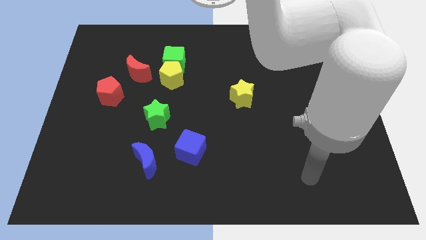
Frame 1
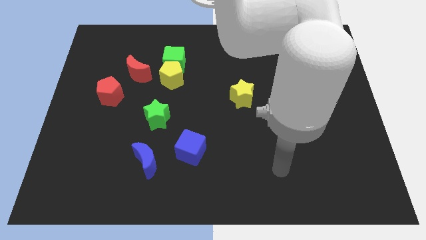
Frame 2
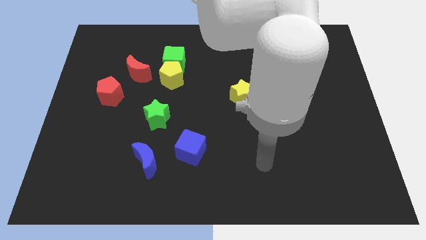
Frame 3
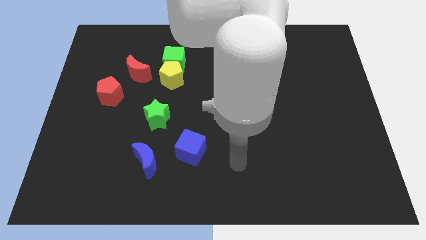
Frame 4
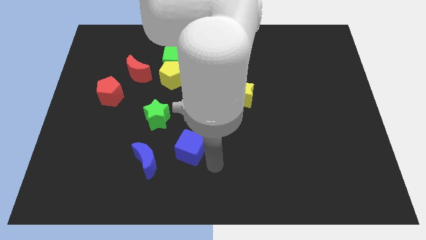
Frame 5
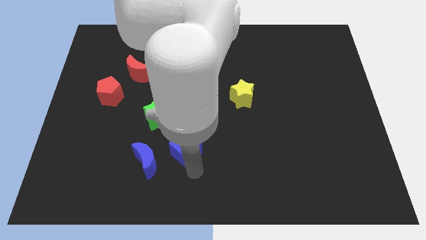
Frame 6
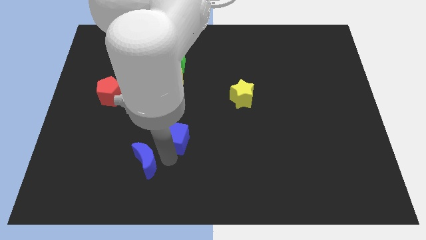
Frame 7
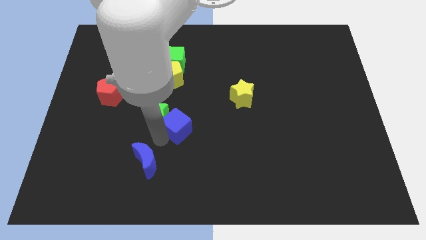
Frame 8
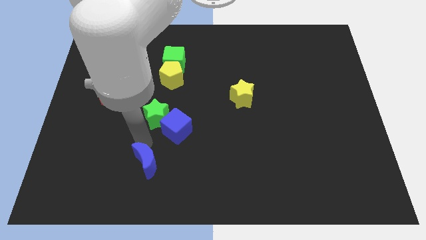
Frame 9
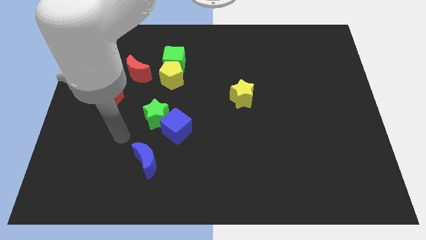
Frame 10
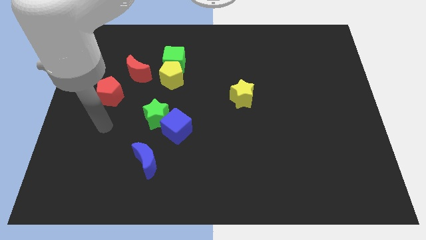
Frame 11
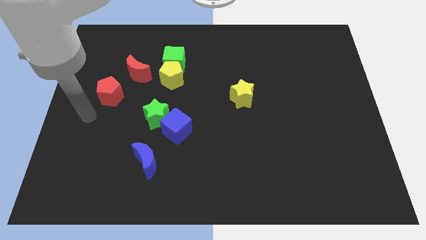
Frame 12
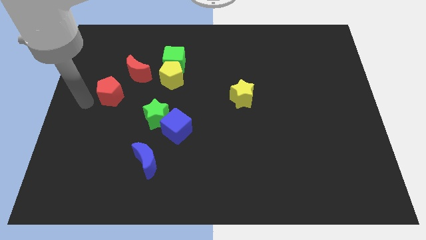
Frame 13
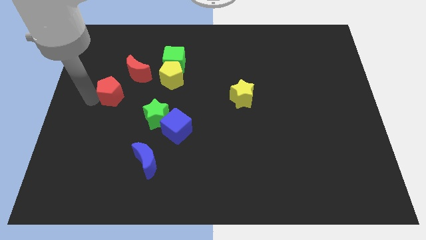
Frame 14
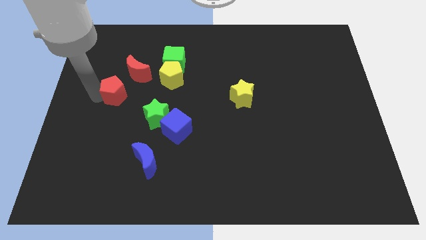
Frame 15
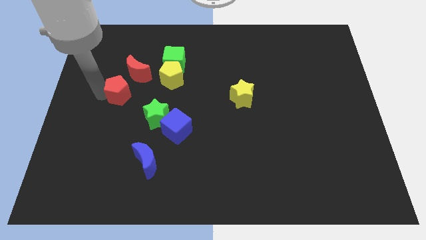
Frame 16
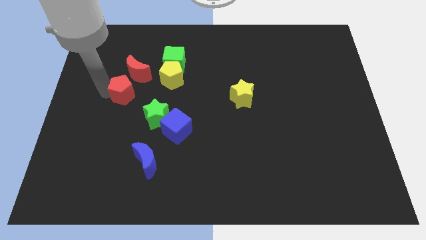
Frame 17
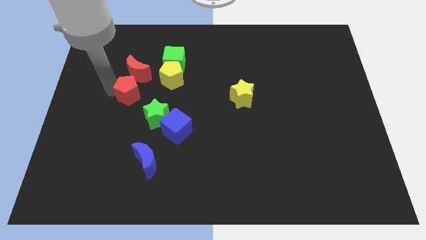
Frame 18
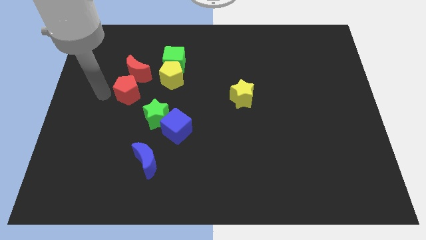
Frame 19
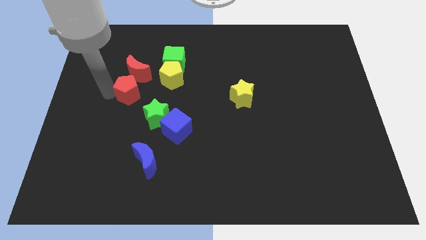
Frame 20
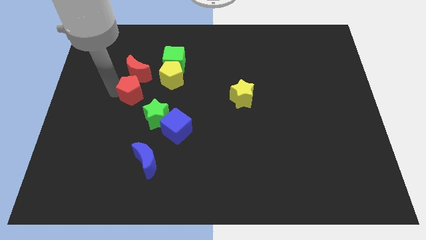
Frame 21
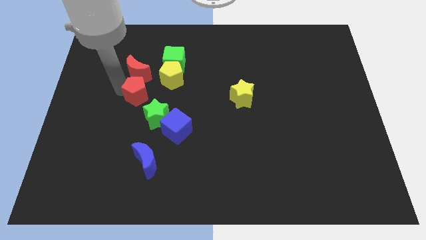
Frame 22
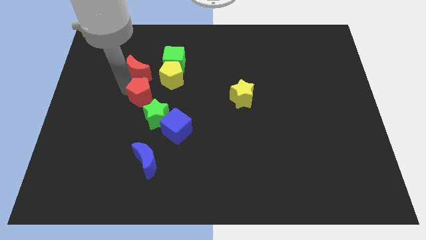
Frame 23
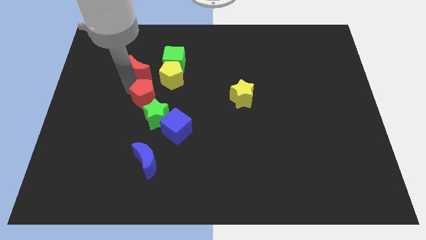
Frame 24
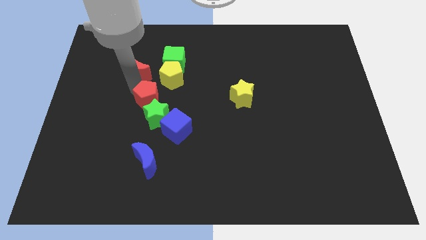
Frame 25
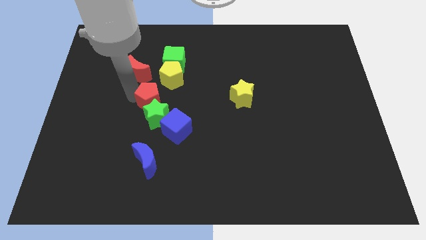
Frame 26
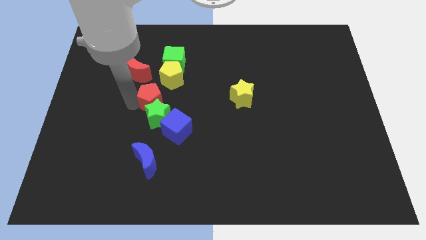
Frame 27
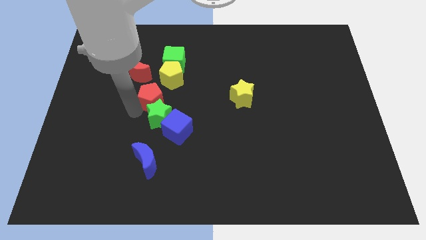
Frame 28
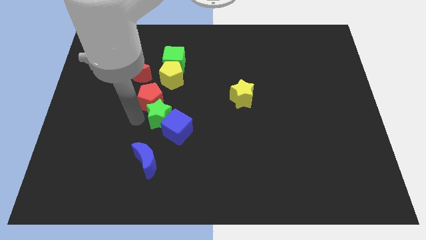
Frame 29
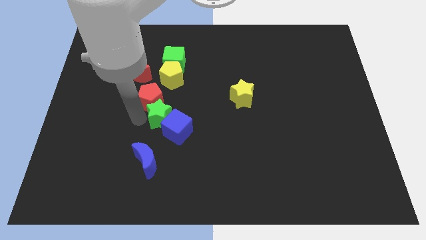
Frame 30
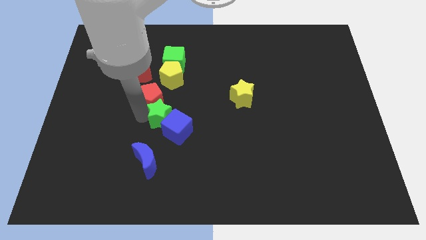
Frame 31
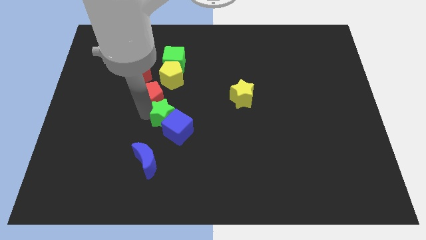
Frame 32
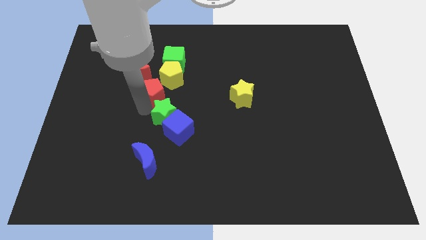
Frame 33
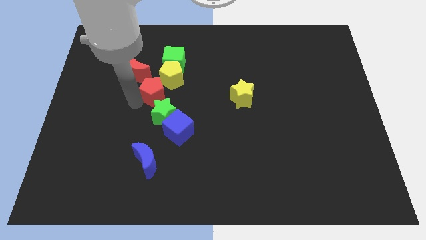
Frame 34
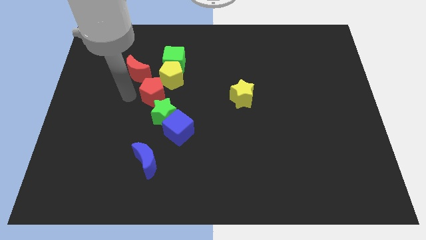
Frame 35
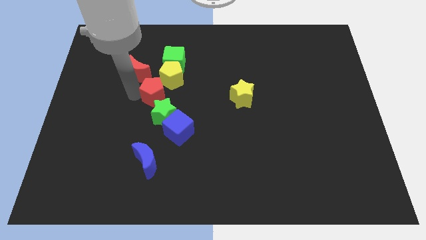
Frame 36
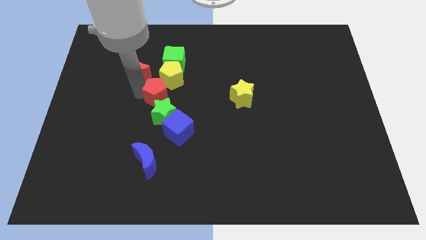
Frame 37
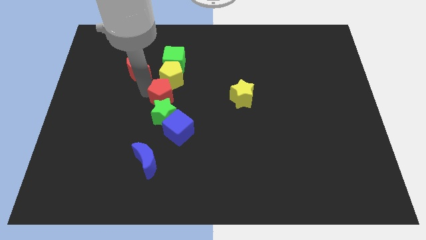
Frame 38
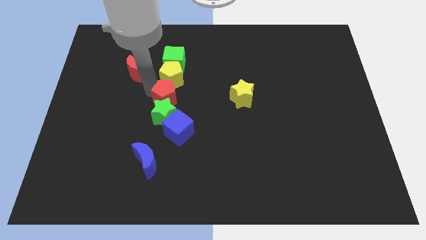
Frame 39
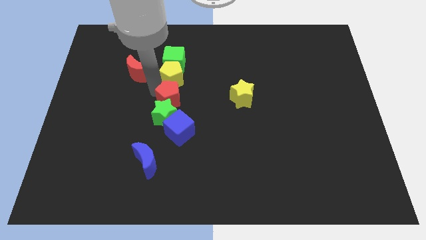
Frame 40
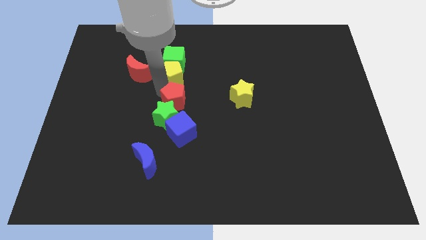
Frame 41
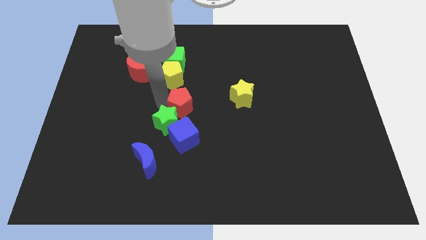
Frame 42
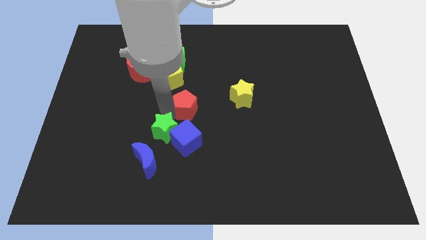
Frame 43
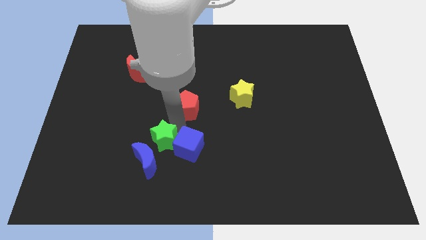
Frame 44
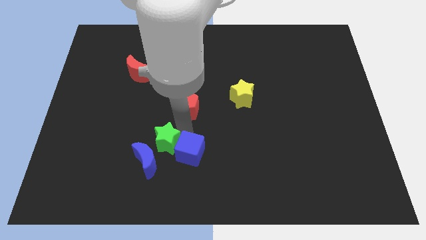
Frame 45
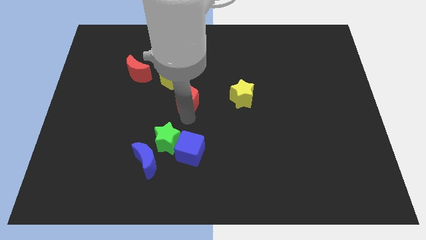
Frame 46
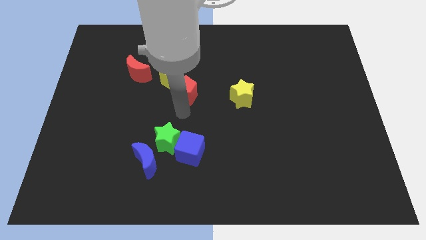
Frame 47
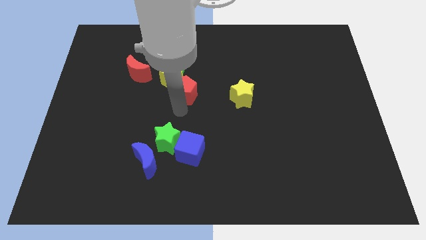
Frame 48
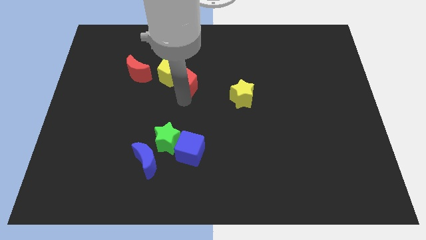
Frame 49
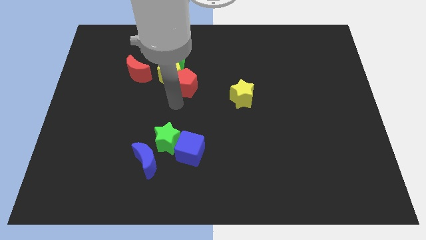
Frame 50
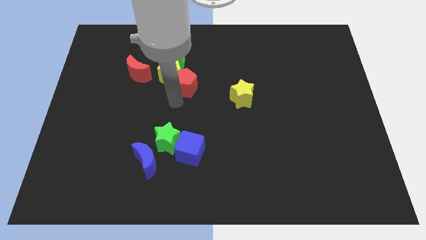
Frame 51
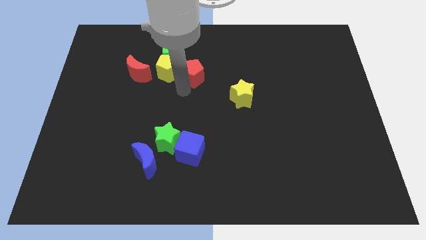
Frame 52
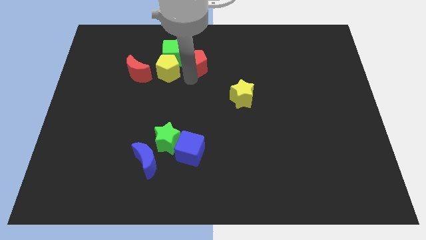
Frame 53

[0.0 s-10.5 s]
move the red pentagon to the right side of the green cube

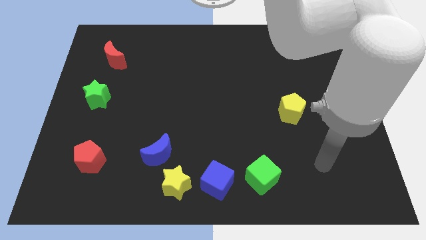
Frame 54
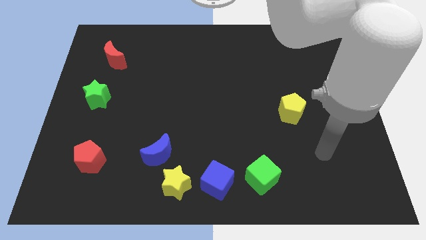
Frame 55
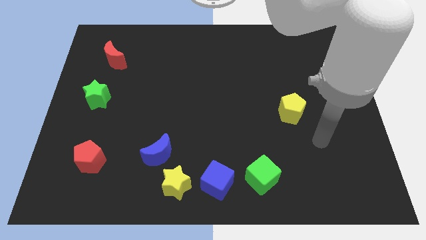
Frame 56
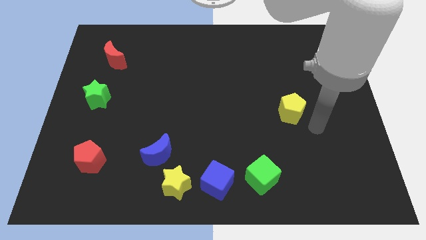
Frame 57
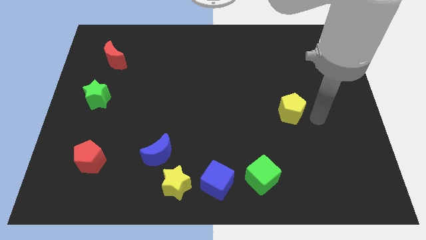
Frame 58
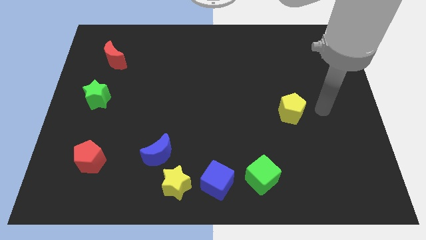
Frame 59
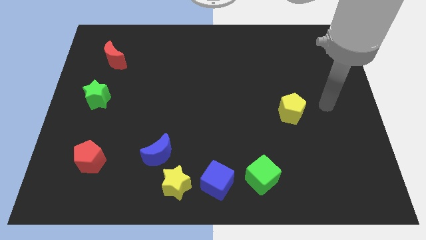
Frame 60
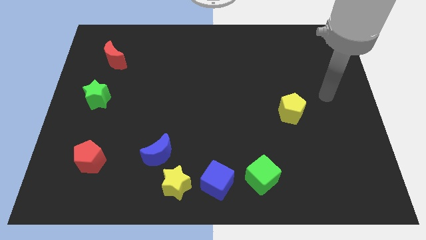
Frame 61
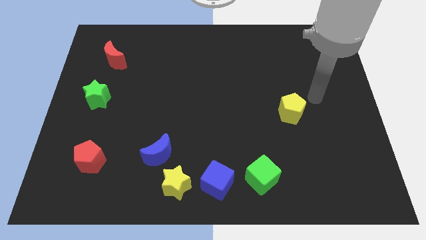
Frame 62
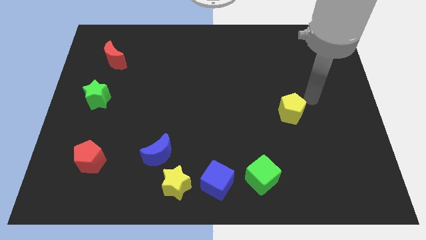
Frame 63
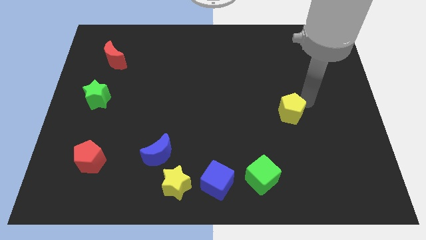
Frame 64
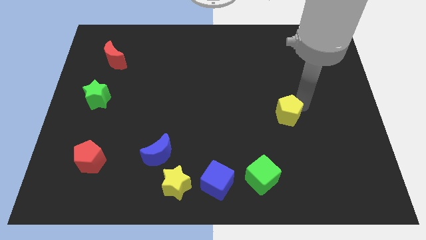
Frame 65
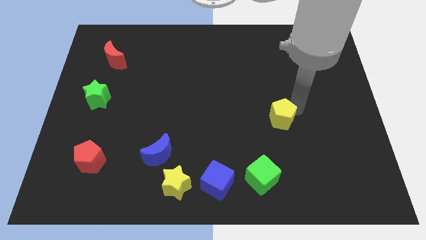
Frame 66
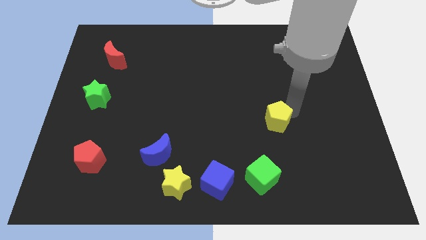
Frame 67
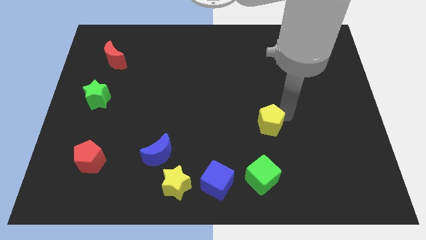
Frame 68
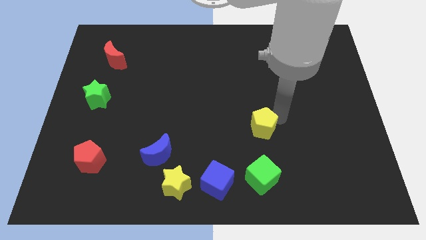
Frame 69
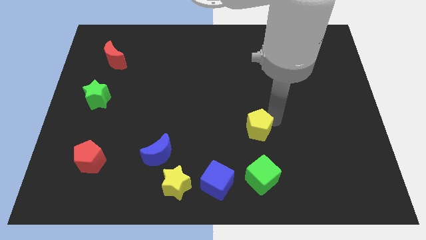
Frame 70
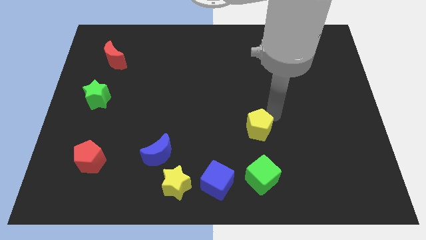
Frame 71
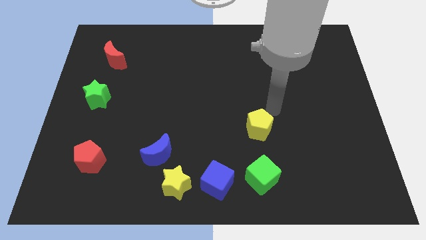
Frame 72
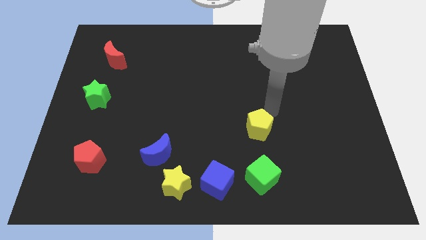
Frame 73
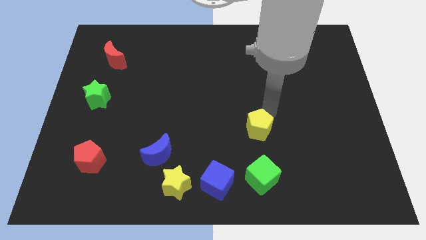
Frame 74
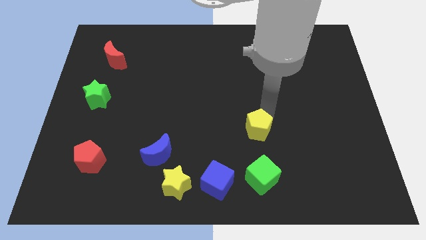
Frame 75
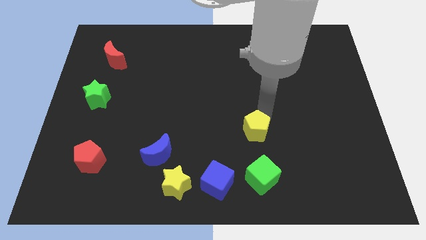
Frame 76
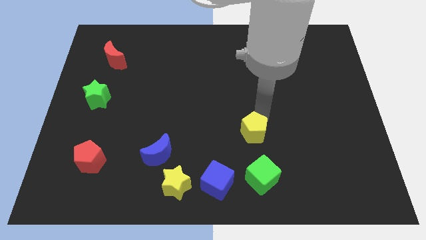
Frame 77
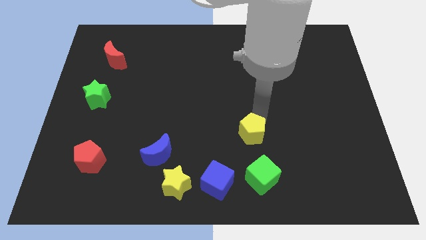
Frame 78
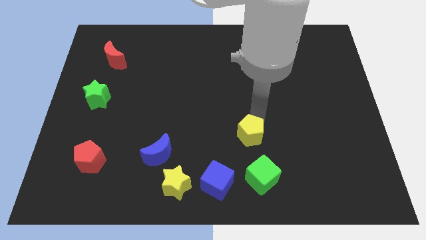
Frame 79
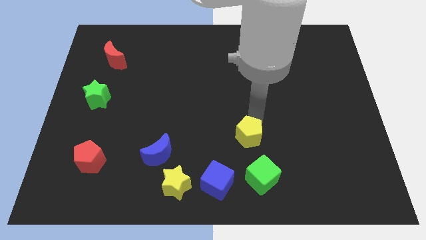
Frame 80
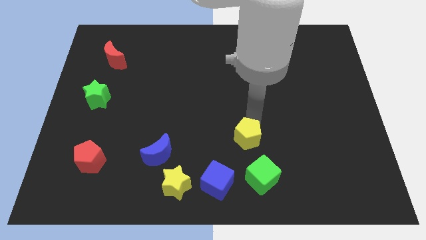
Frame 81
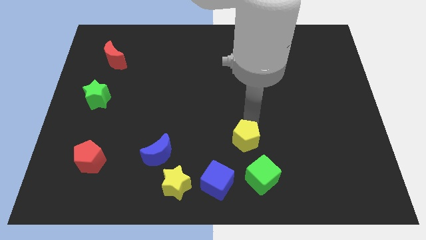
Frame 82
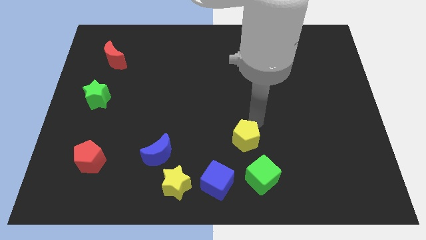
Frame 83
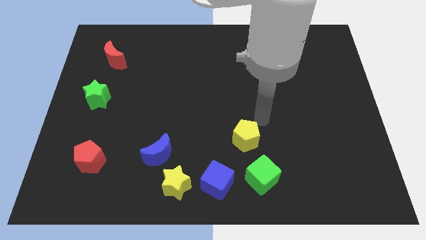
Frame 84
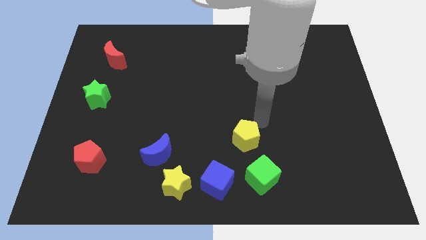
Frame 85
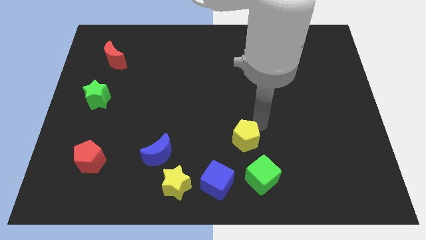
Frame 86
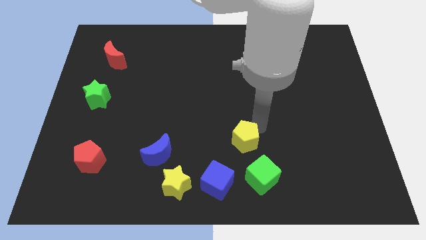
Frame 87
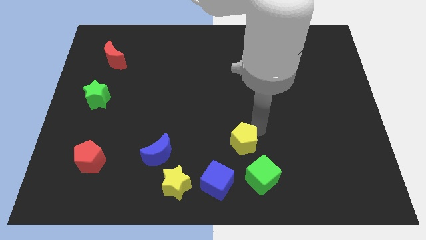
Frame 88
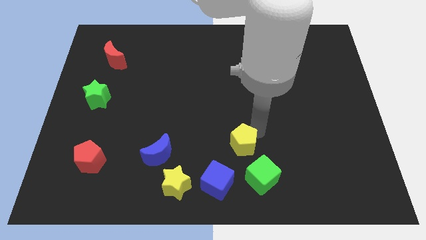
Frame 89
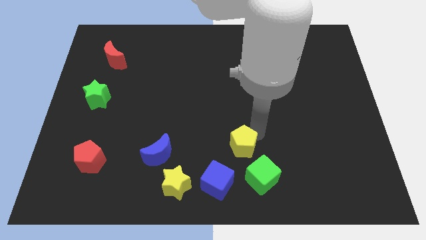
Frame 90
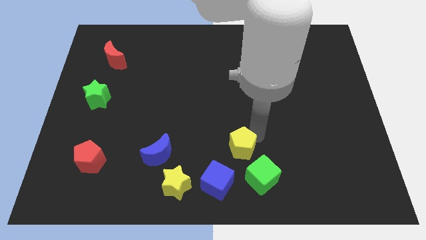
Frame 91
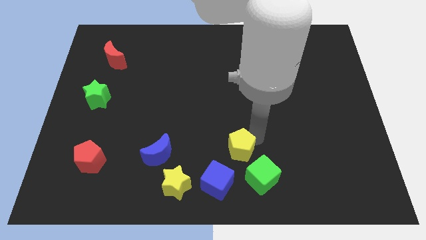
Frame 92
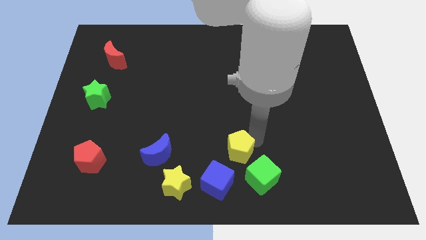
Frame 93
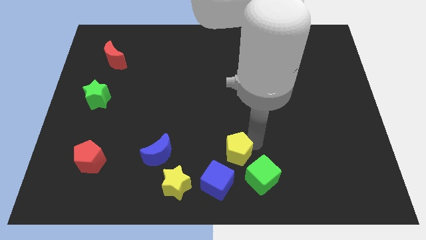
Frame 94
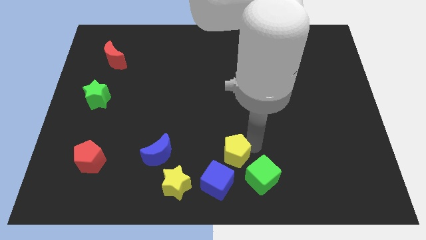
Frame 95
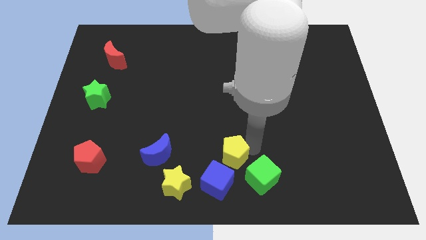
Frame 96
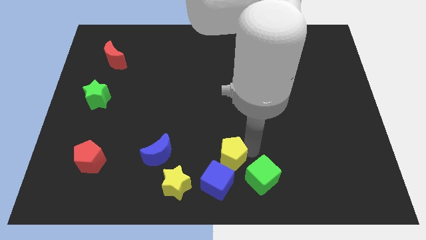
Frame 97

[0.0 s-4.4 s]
put the yellow pentagon just left of the green cube
